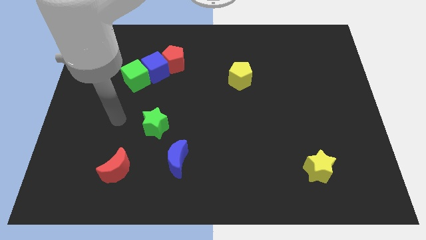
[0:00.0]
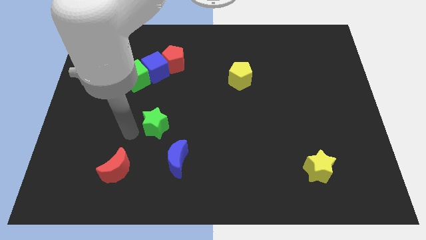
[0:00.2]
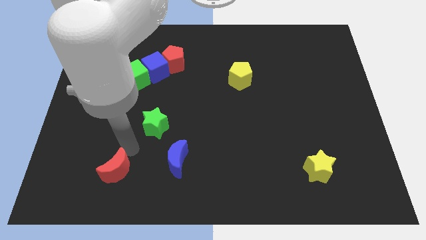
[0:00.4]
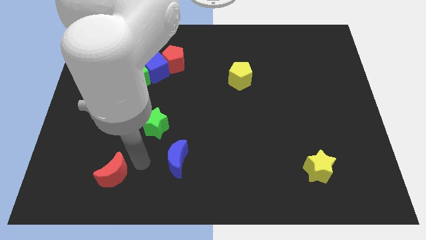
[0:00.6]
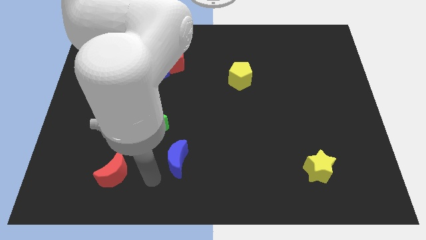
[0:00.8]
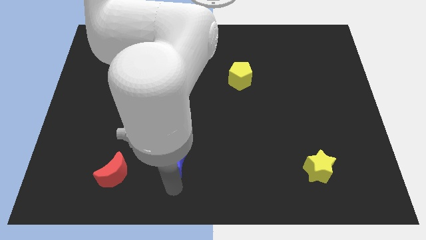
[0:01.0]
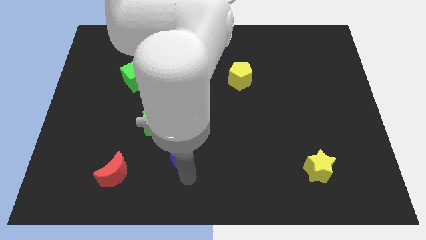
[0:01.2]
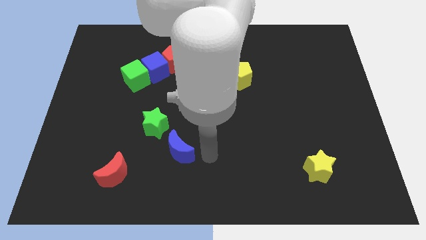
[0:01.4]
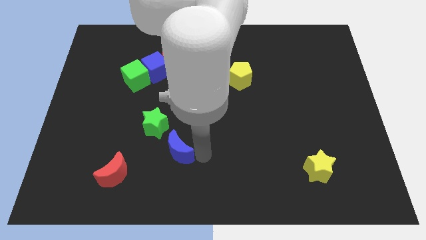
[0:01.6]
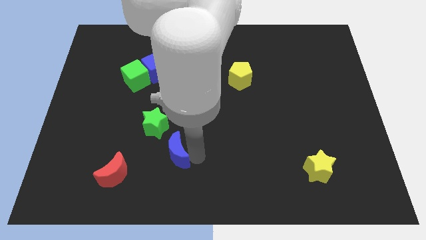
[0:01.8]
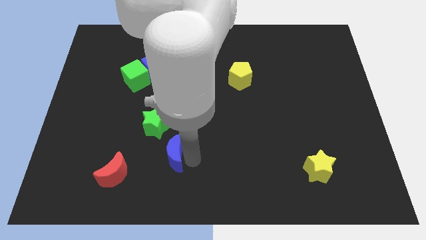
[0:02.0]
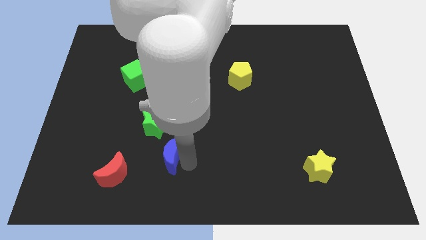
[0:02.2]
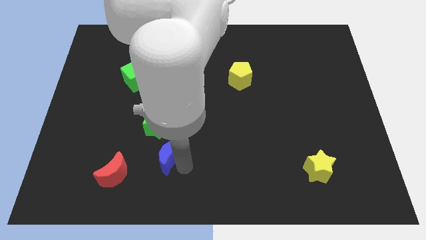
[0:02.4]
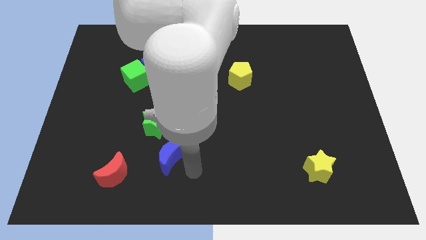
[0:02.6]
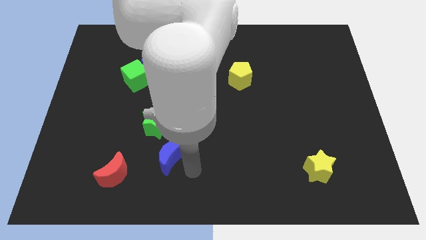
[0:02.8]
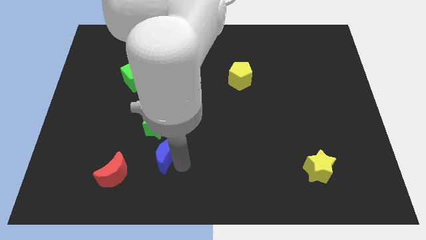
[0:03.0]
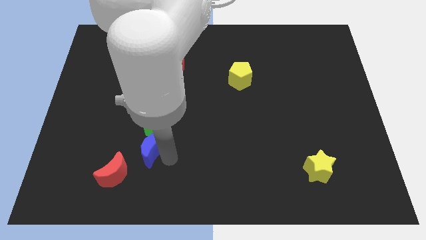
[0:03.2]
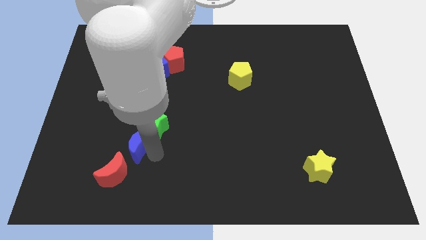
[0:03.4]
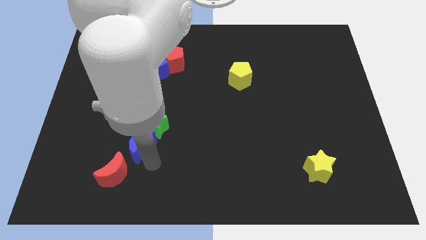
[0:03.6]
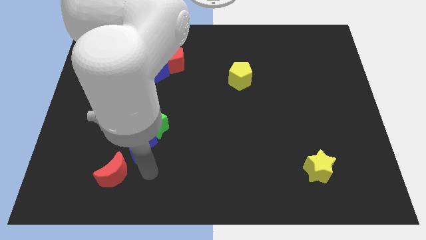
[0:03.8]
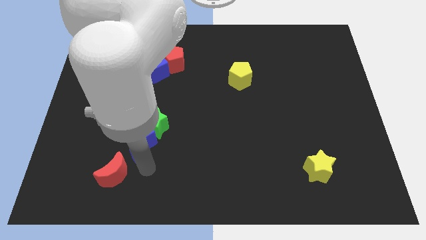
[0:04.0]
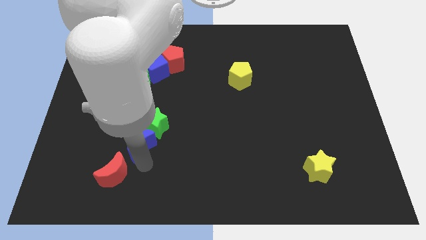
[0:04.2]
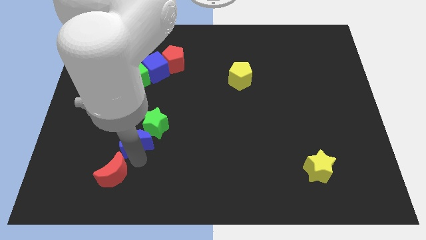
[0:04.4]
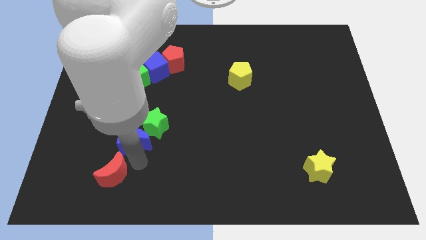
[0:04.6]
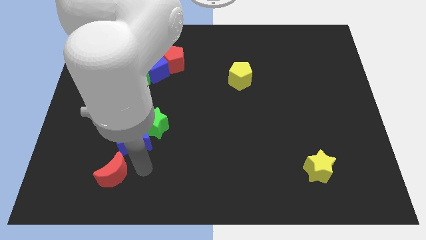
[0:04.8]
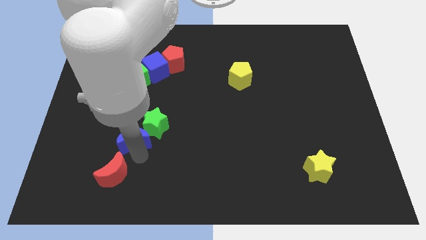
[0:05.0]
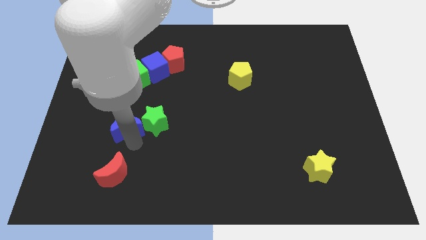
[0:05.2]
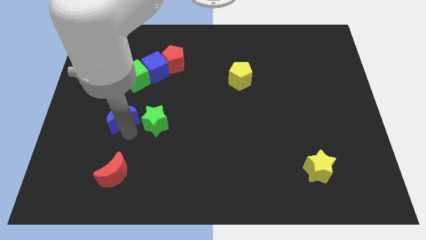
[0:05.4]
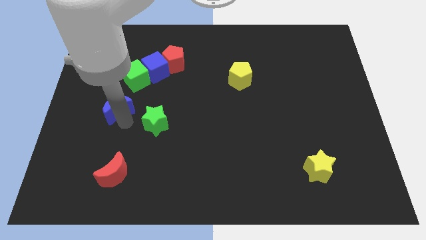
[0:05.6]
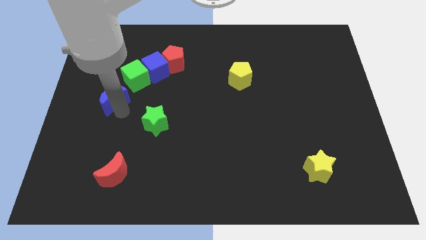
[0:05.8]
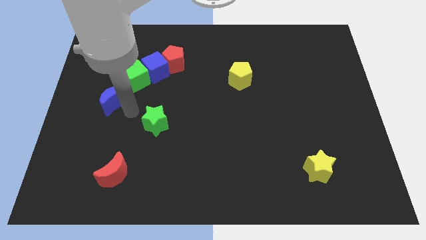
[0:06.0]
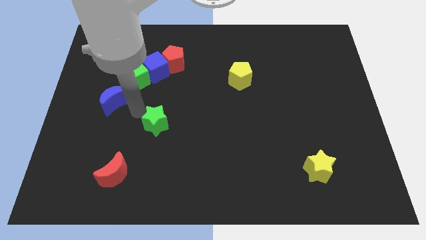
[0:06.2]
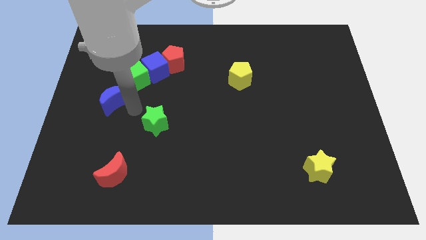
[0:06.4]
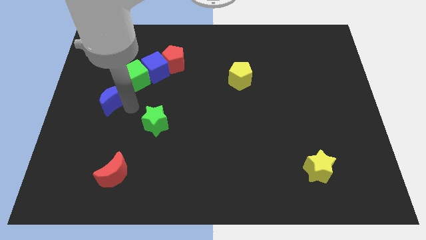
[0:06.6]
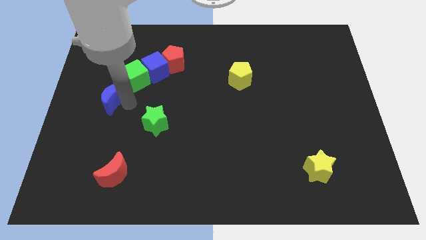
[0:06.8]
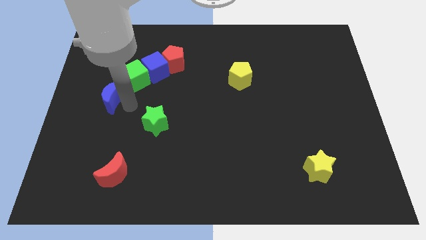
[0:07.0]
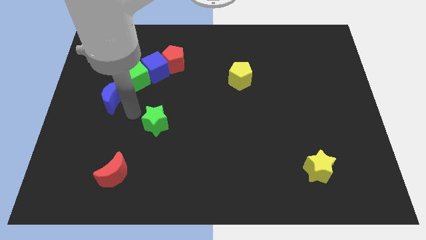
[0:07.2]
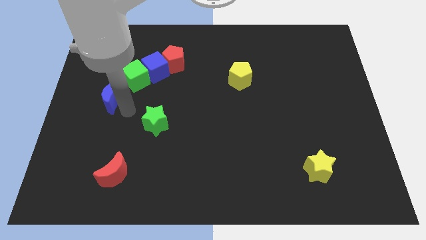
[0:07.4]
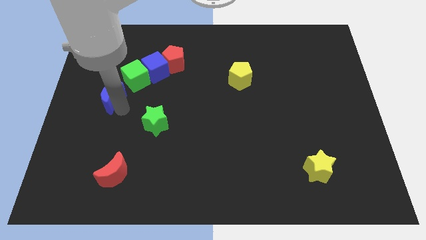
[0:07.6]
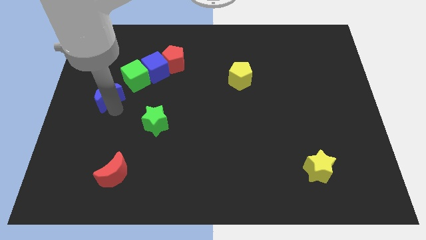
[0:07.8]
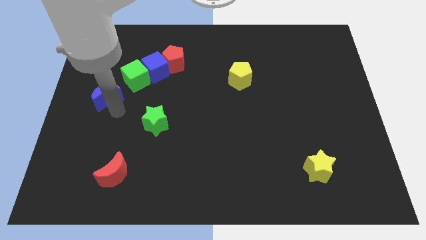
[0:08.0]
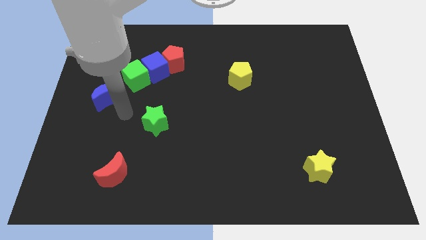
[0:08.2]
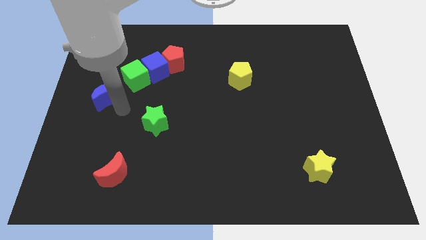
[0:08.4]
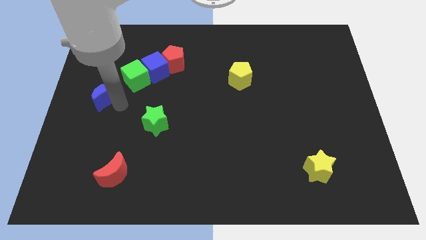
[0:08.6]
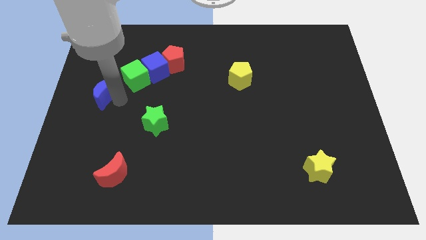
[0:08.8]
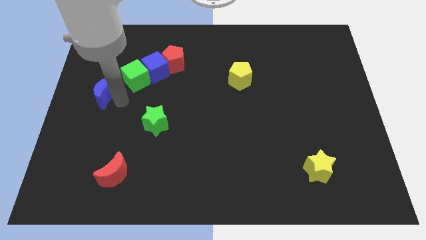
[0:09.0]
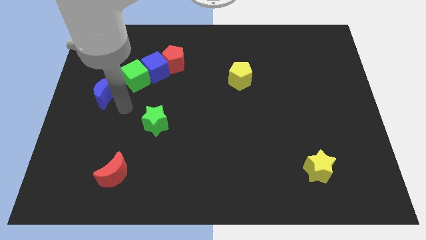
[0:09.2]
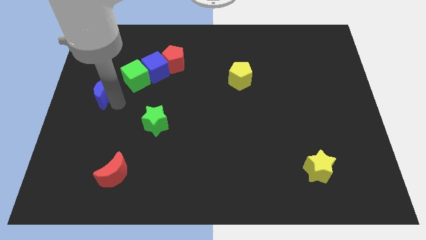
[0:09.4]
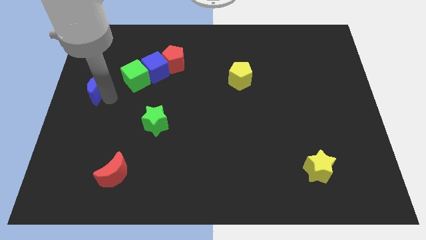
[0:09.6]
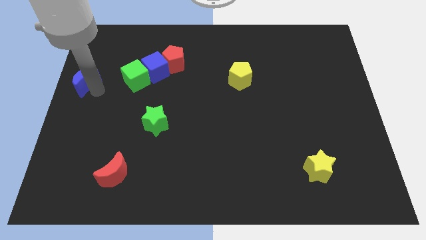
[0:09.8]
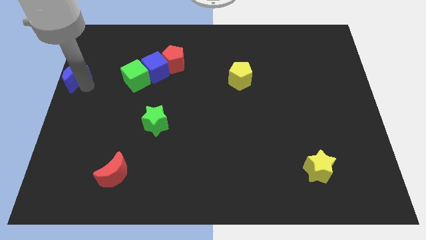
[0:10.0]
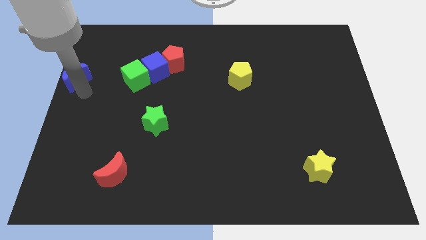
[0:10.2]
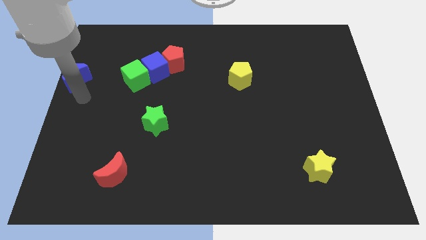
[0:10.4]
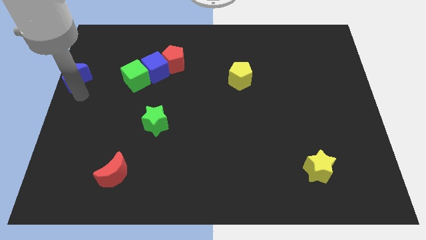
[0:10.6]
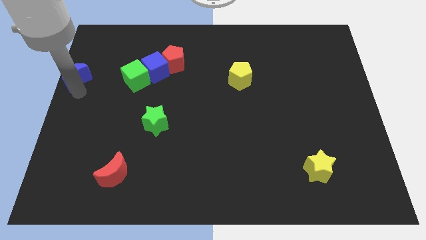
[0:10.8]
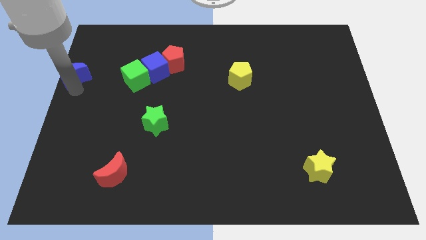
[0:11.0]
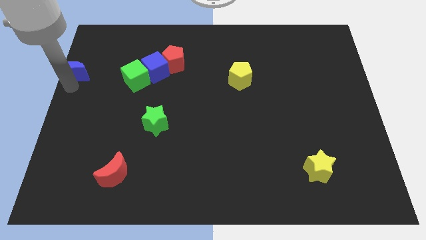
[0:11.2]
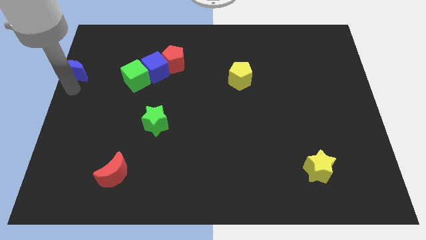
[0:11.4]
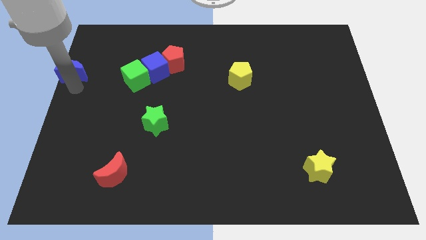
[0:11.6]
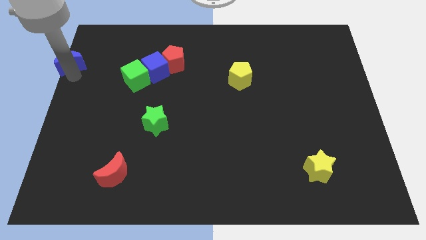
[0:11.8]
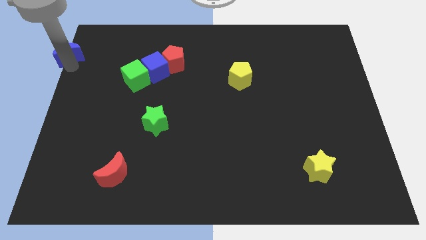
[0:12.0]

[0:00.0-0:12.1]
push the blue moon to the top left corner
